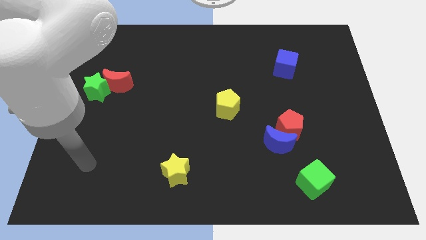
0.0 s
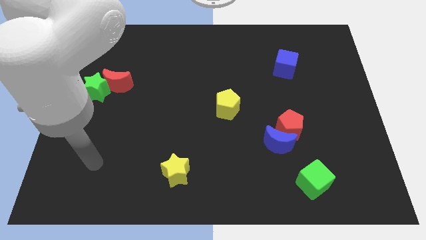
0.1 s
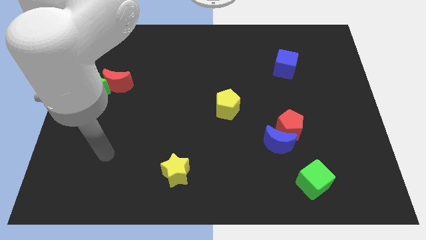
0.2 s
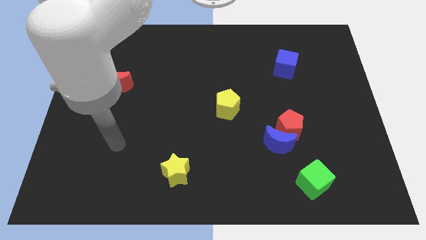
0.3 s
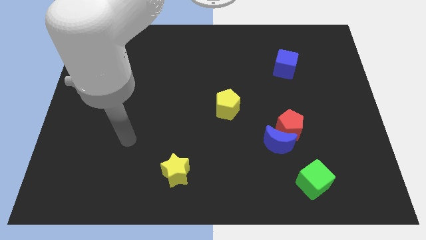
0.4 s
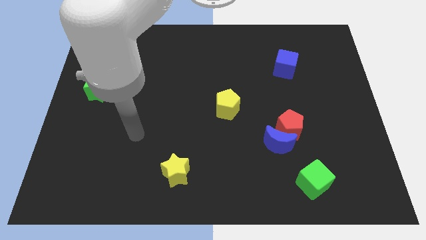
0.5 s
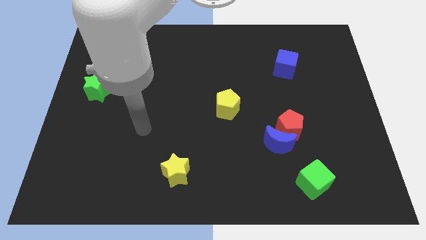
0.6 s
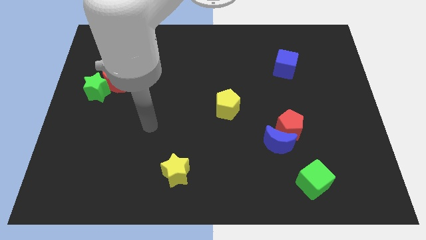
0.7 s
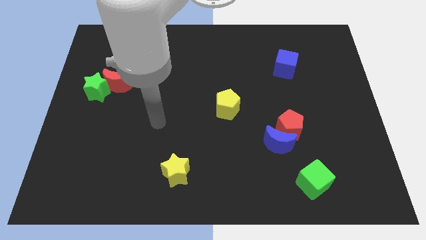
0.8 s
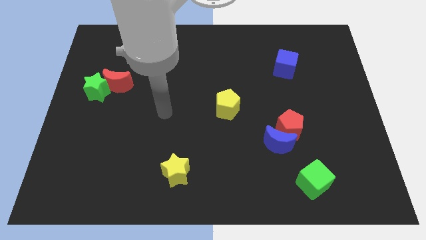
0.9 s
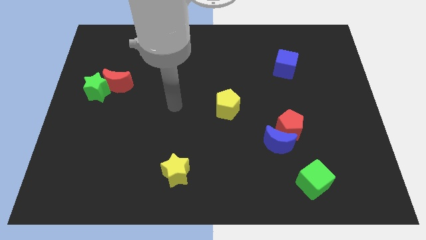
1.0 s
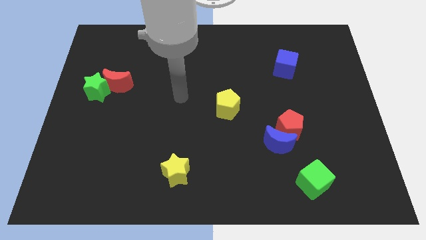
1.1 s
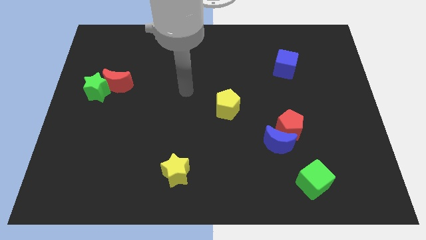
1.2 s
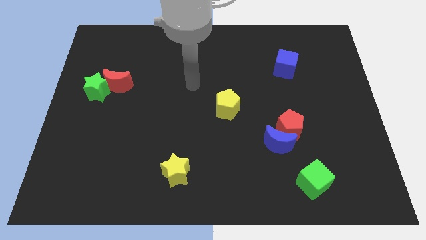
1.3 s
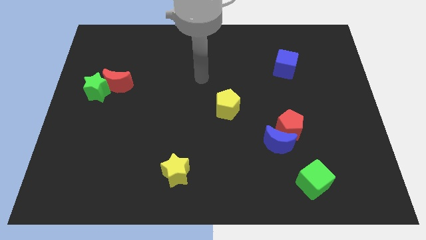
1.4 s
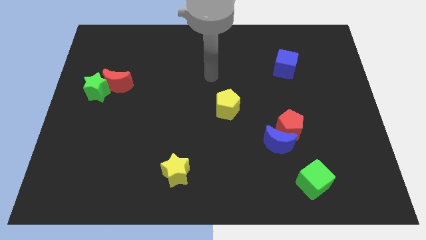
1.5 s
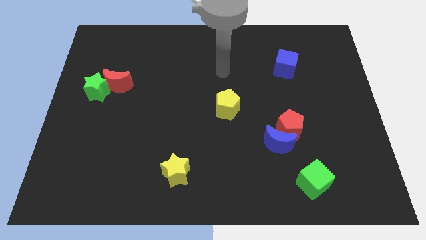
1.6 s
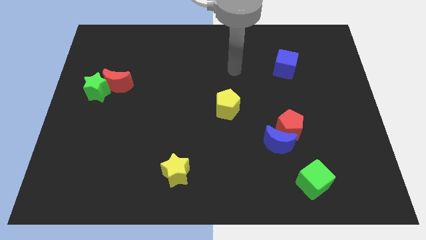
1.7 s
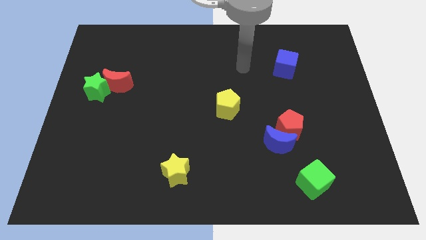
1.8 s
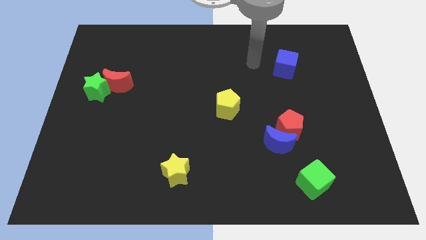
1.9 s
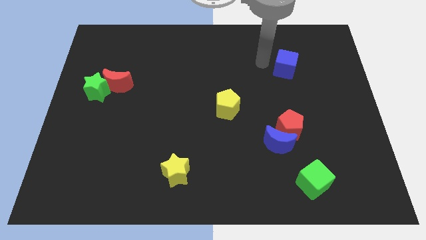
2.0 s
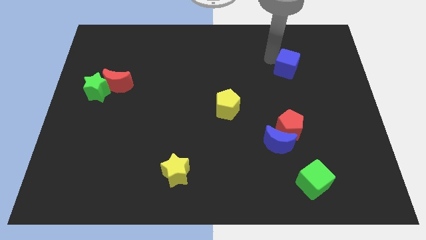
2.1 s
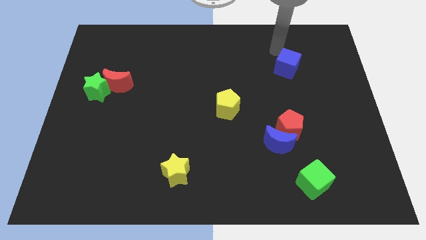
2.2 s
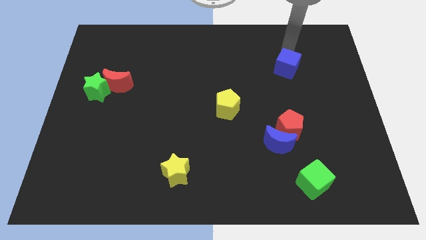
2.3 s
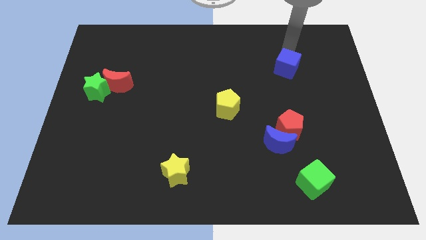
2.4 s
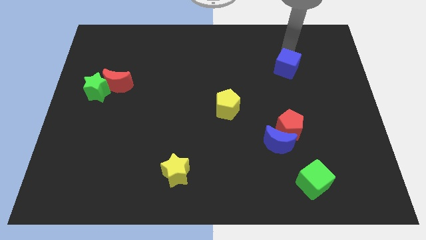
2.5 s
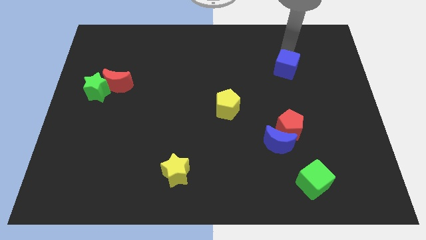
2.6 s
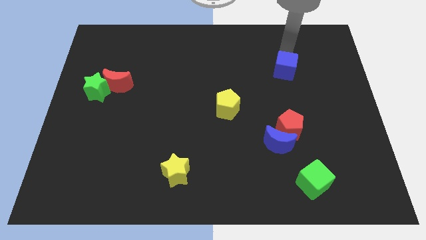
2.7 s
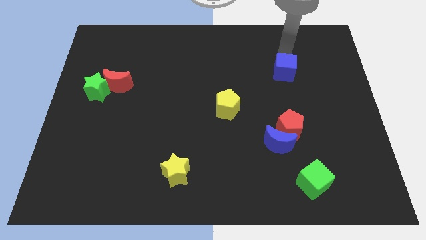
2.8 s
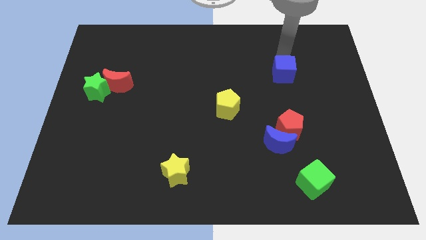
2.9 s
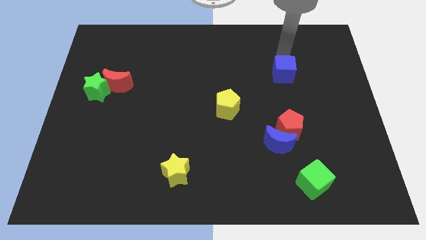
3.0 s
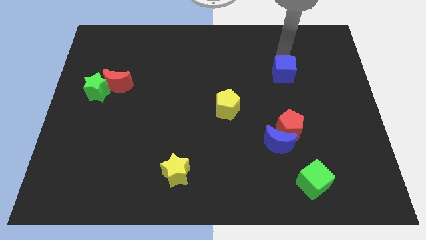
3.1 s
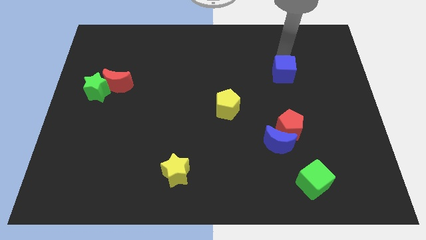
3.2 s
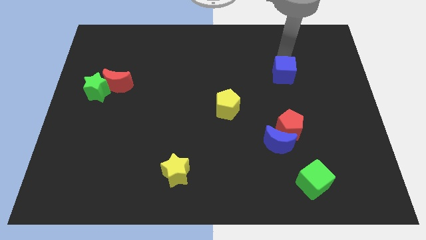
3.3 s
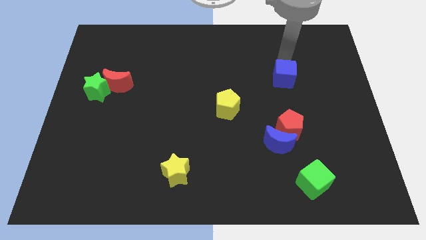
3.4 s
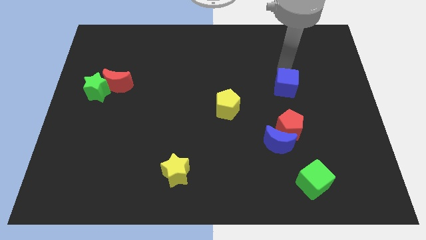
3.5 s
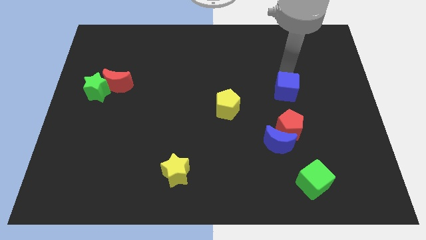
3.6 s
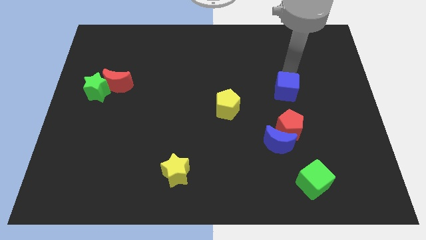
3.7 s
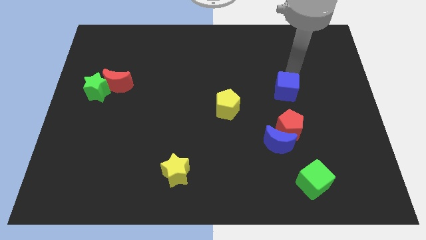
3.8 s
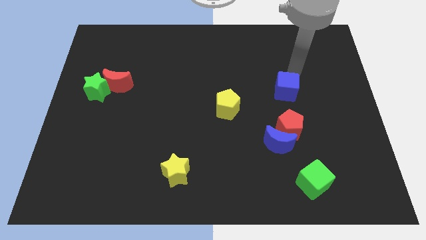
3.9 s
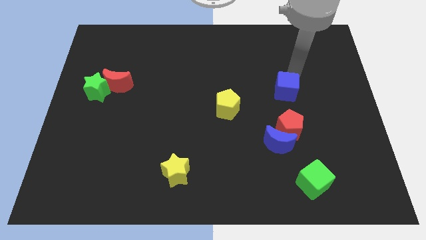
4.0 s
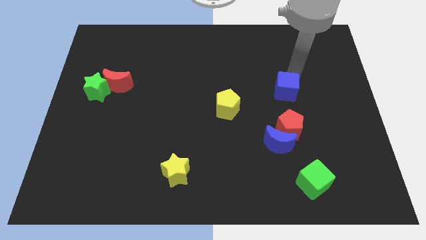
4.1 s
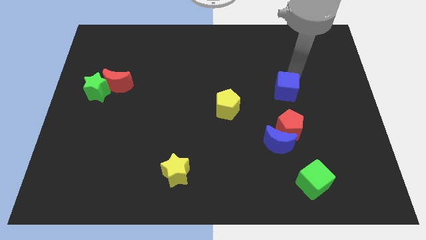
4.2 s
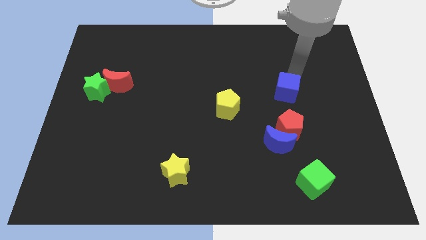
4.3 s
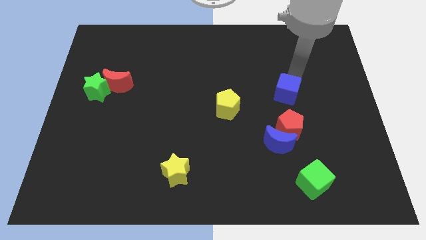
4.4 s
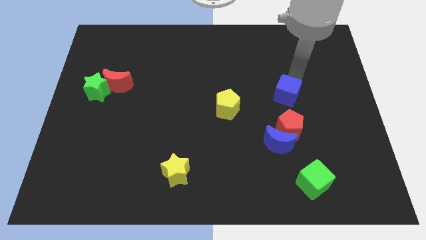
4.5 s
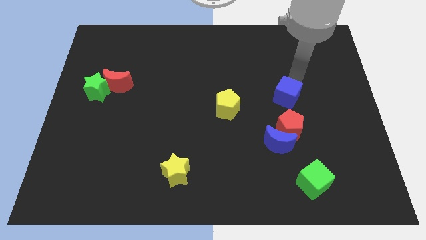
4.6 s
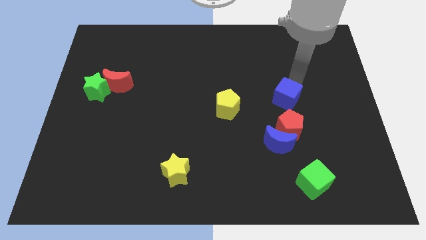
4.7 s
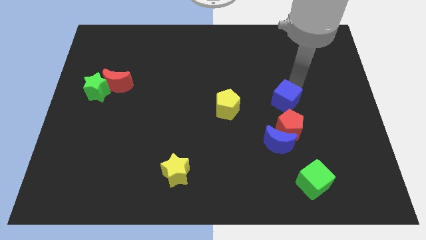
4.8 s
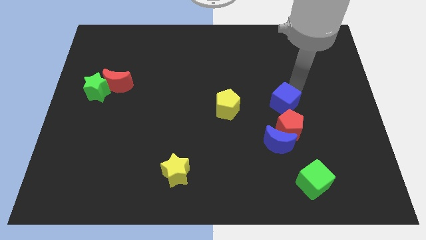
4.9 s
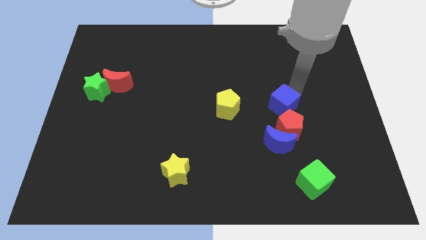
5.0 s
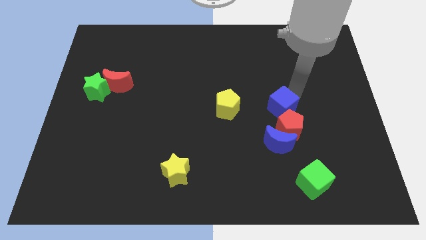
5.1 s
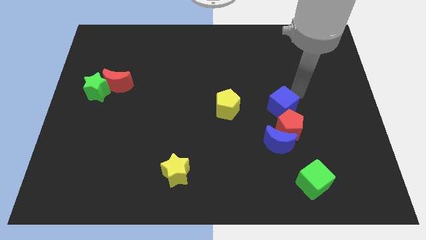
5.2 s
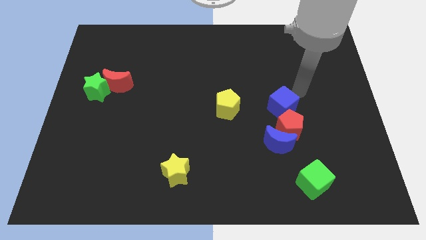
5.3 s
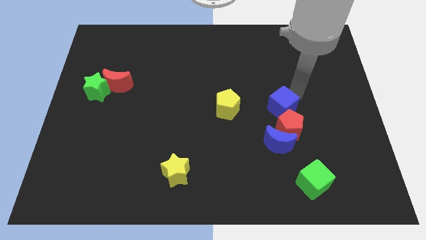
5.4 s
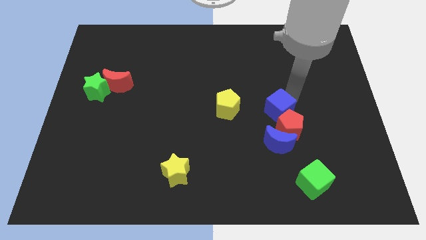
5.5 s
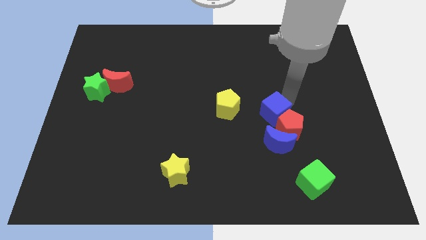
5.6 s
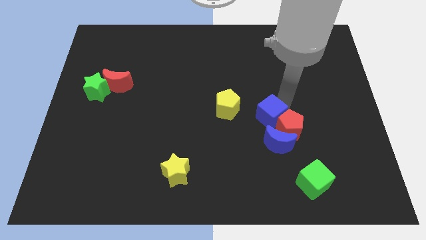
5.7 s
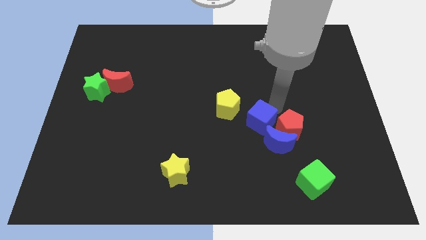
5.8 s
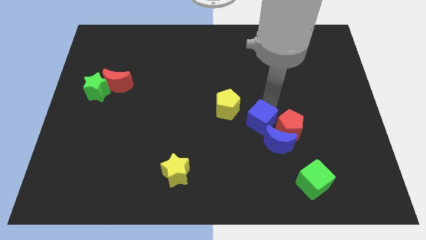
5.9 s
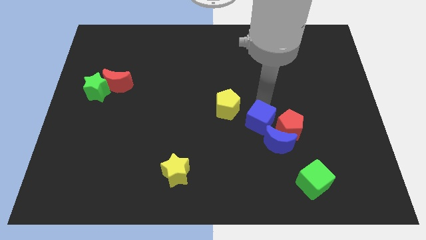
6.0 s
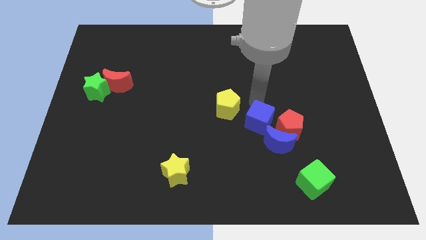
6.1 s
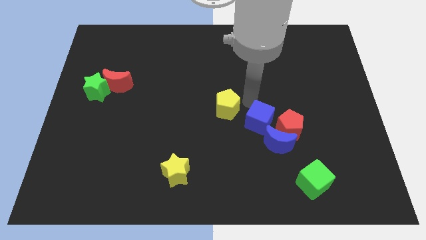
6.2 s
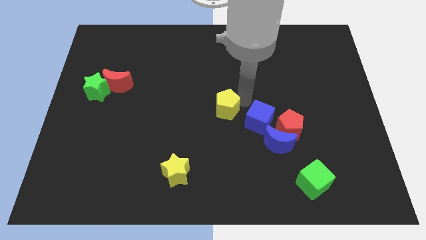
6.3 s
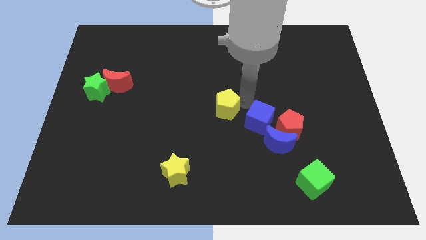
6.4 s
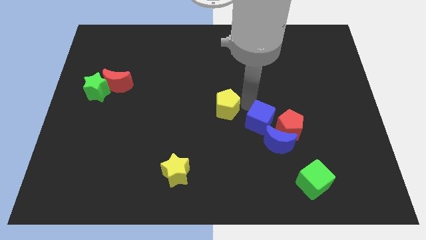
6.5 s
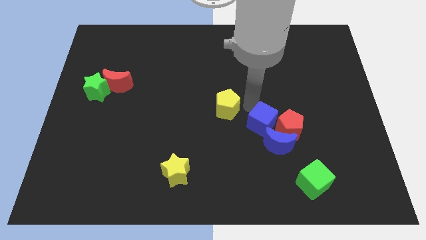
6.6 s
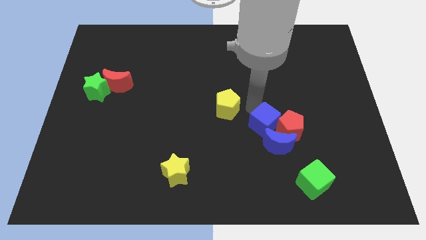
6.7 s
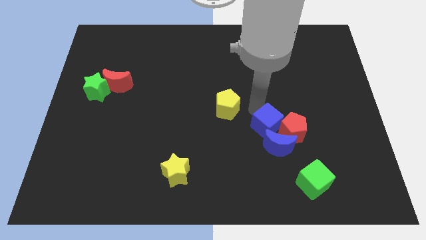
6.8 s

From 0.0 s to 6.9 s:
push the blue cube next to the blue moon

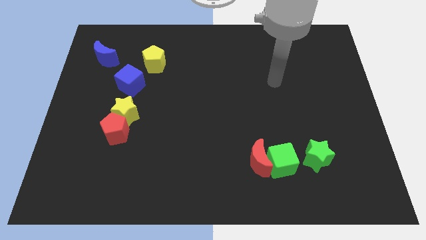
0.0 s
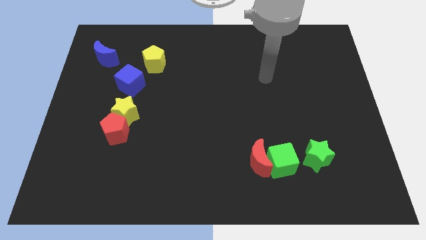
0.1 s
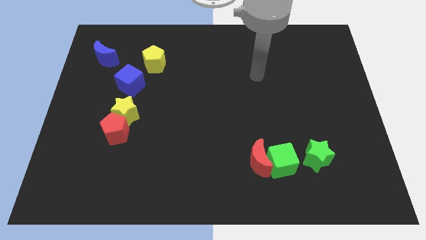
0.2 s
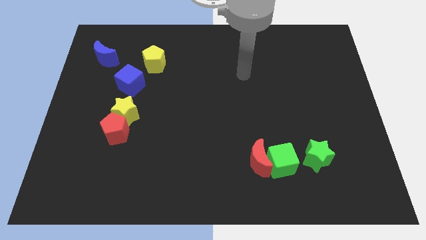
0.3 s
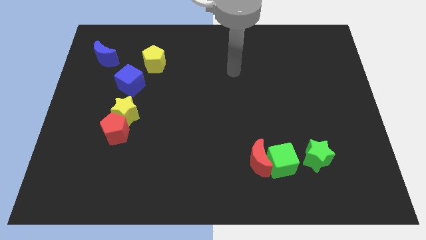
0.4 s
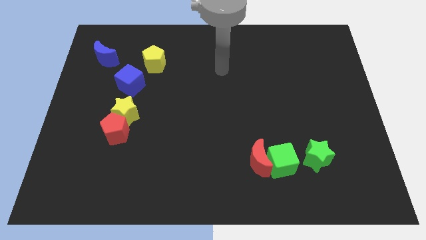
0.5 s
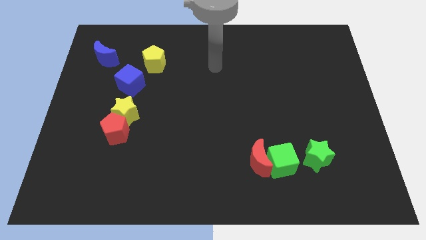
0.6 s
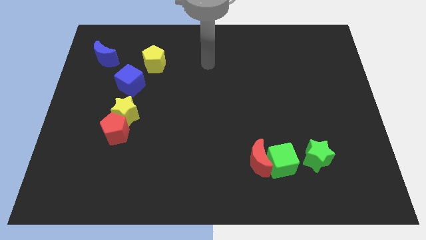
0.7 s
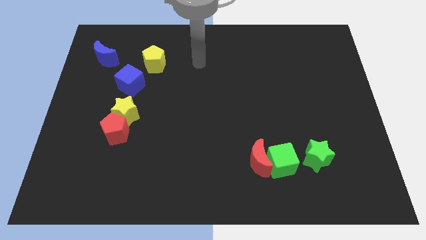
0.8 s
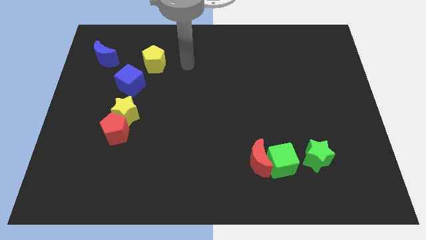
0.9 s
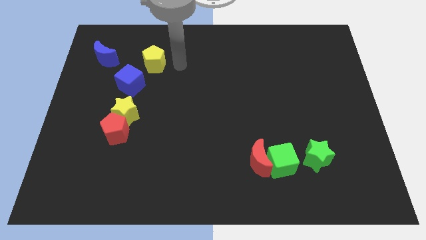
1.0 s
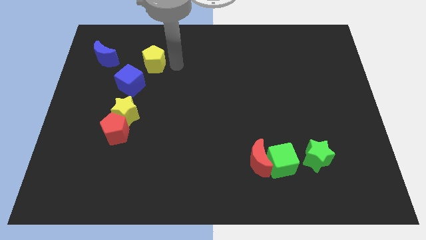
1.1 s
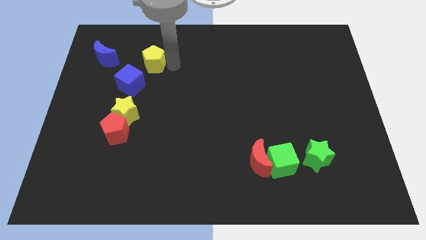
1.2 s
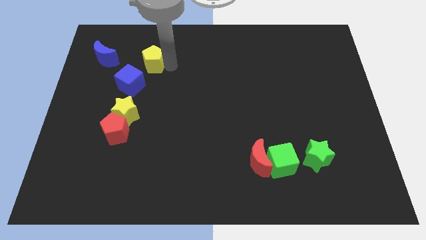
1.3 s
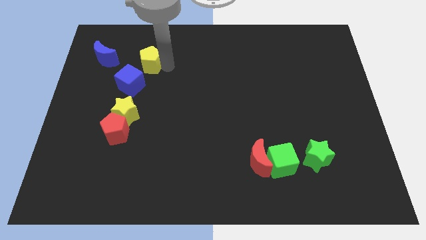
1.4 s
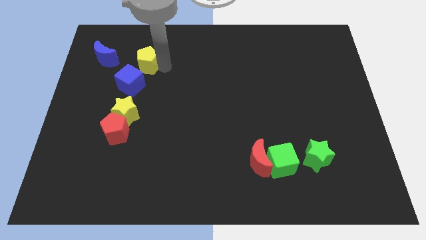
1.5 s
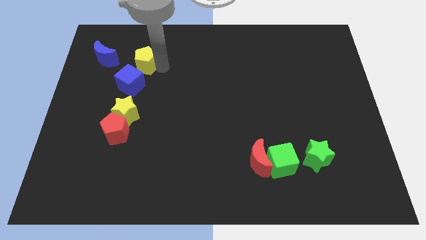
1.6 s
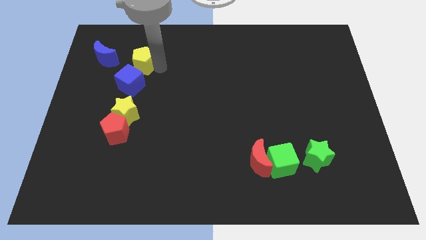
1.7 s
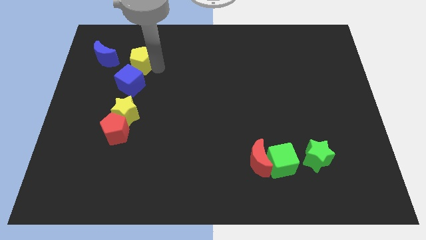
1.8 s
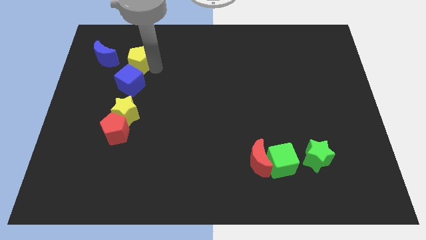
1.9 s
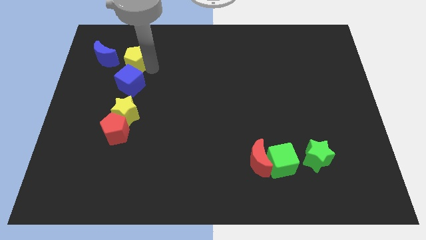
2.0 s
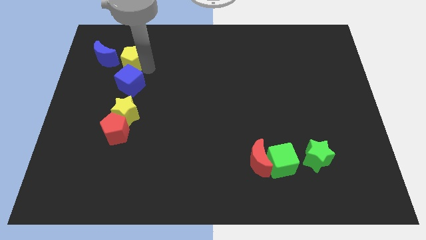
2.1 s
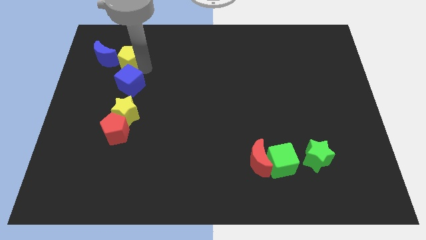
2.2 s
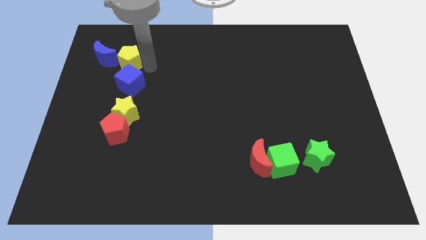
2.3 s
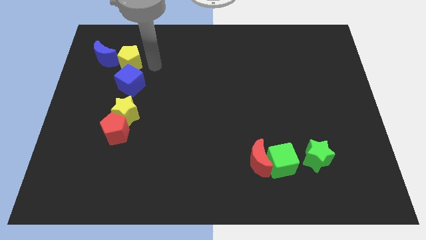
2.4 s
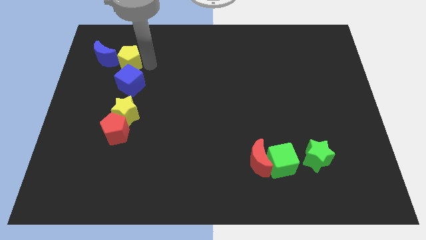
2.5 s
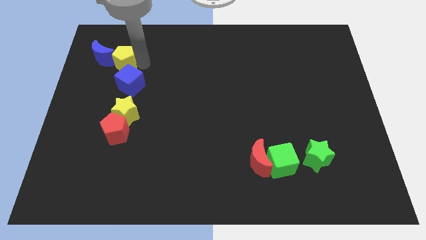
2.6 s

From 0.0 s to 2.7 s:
move the yellow pentagon close to the blue moon
